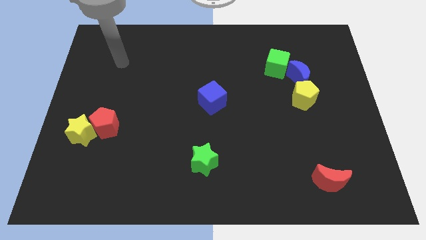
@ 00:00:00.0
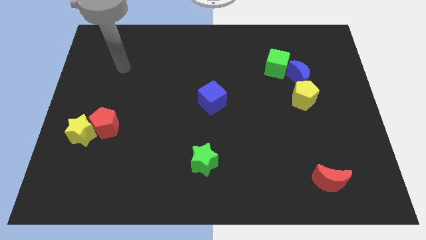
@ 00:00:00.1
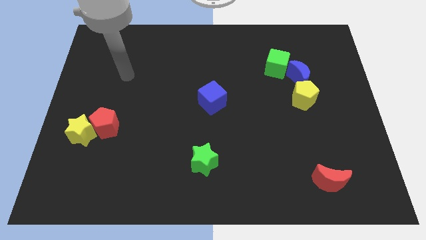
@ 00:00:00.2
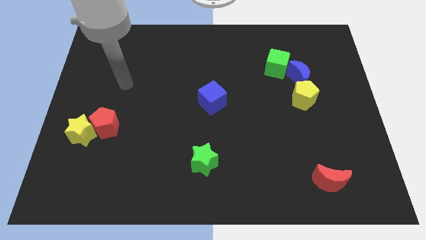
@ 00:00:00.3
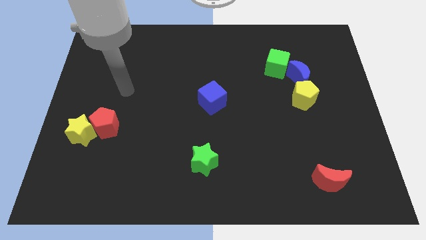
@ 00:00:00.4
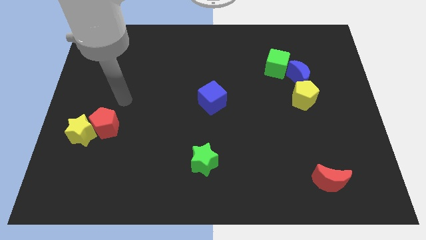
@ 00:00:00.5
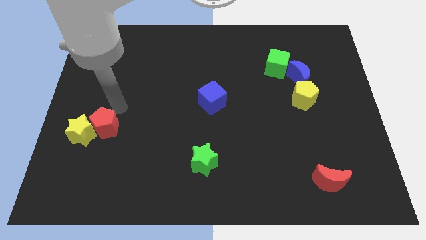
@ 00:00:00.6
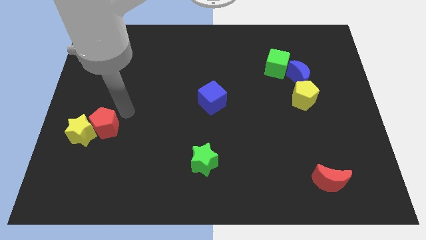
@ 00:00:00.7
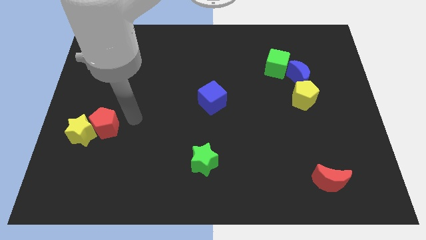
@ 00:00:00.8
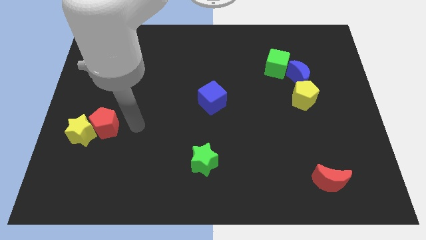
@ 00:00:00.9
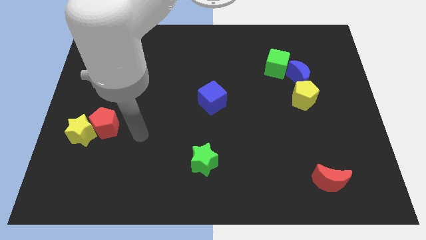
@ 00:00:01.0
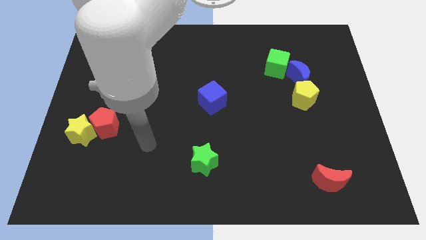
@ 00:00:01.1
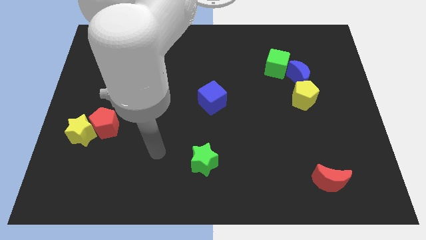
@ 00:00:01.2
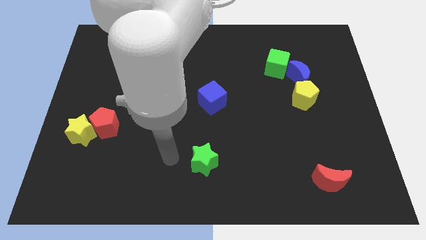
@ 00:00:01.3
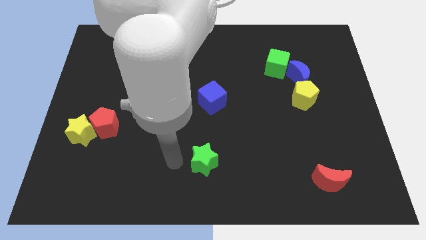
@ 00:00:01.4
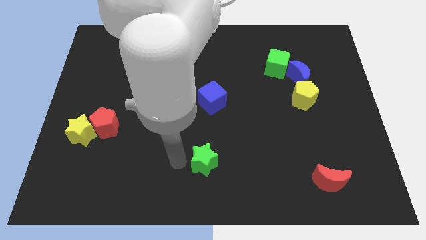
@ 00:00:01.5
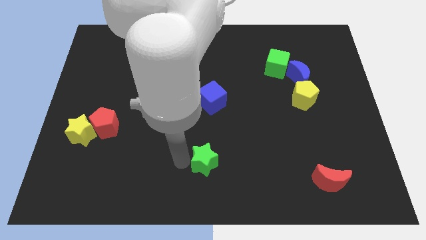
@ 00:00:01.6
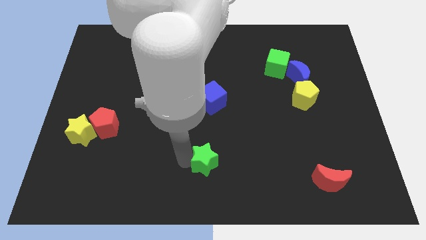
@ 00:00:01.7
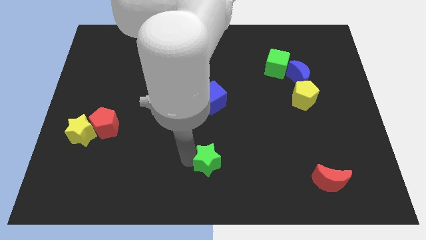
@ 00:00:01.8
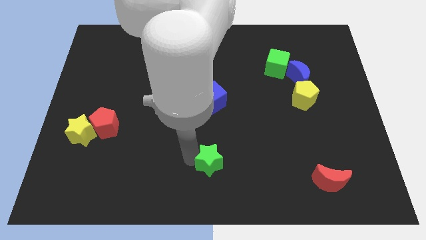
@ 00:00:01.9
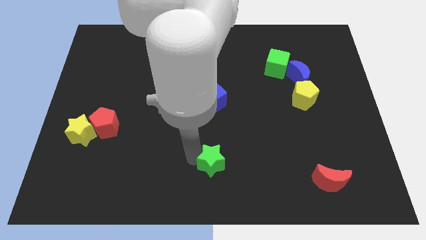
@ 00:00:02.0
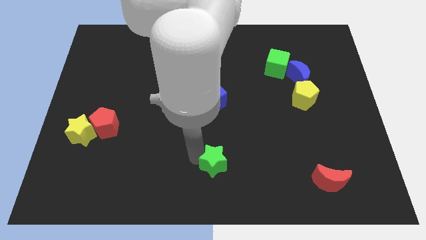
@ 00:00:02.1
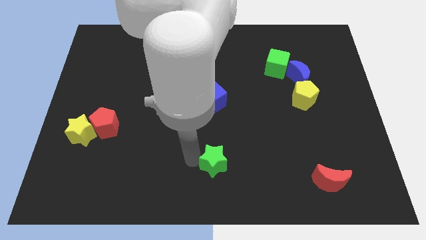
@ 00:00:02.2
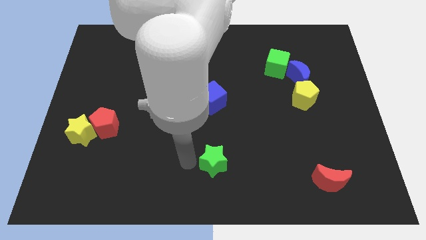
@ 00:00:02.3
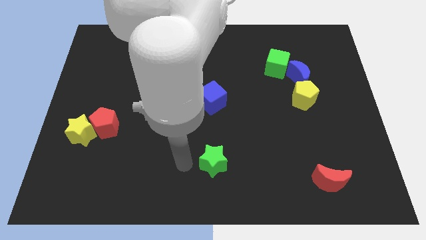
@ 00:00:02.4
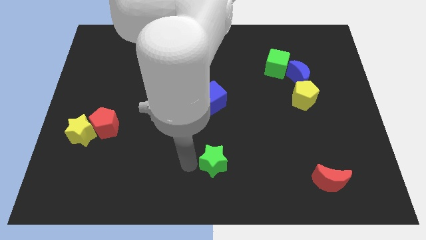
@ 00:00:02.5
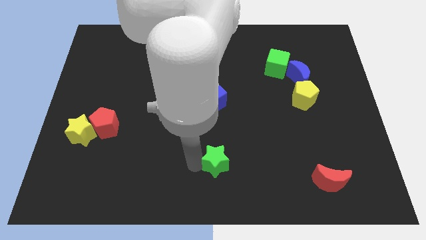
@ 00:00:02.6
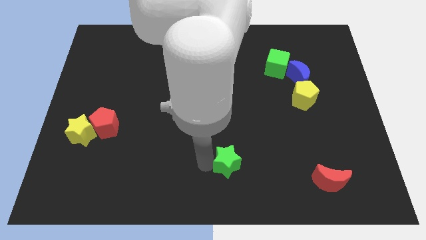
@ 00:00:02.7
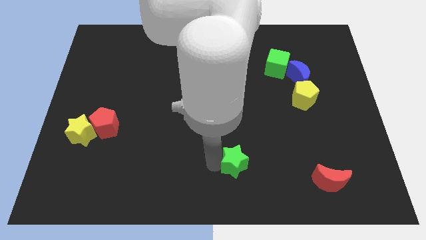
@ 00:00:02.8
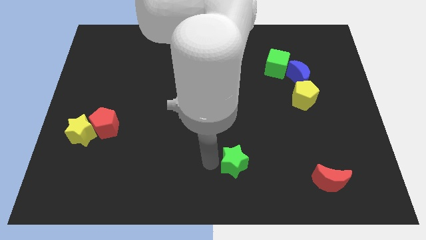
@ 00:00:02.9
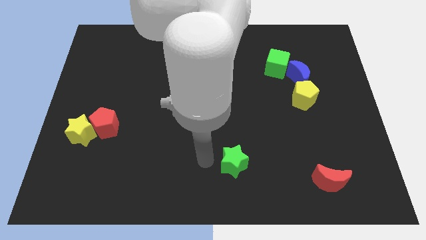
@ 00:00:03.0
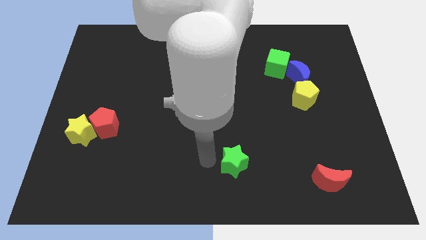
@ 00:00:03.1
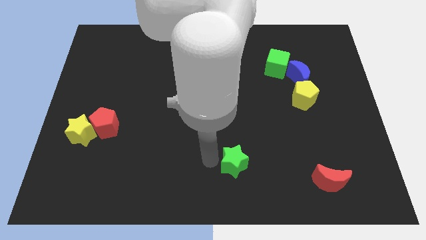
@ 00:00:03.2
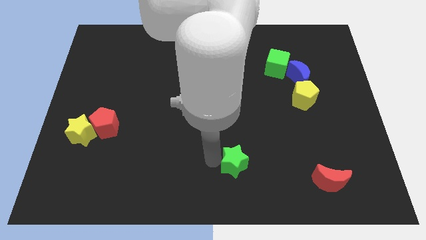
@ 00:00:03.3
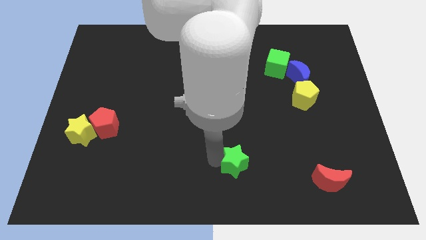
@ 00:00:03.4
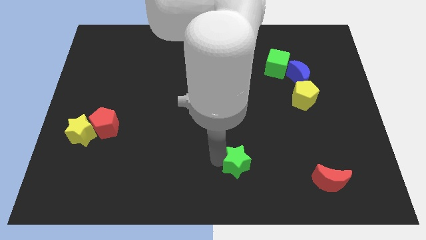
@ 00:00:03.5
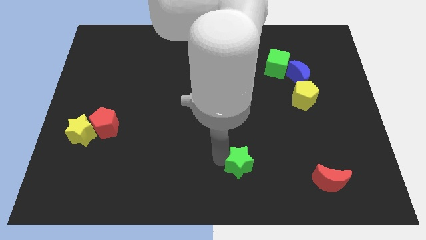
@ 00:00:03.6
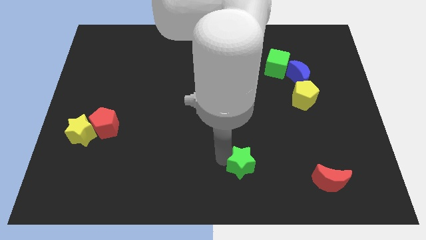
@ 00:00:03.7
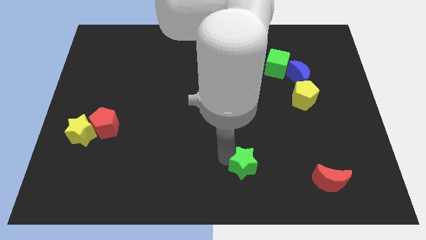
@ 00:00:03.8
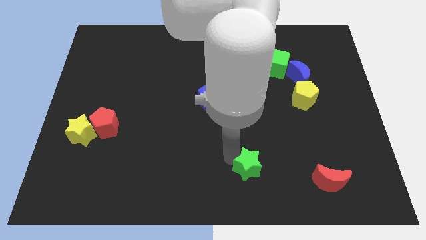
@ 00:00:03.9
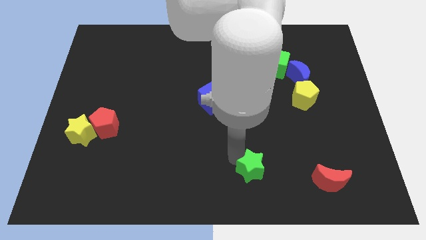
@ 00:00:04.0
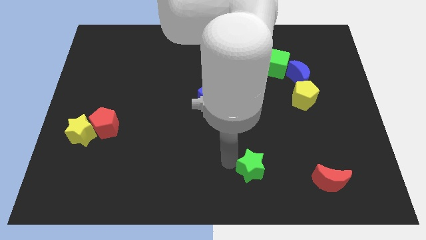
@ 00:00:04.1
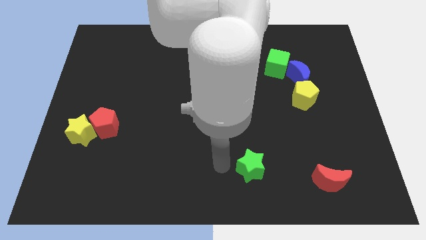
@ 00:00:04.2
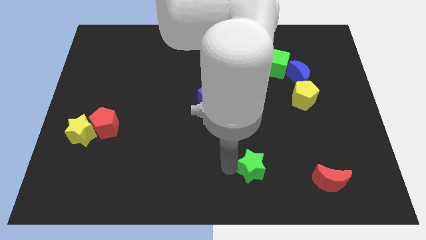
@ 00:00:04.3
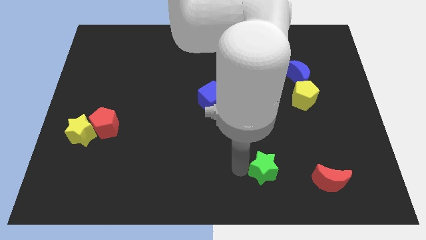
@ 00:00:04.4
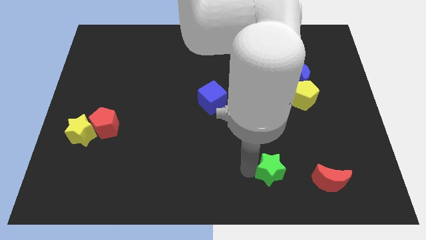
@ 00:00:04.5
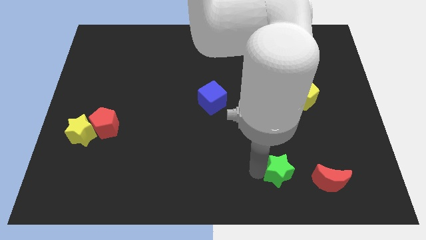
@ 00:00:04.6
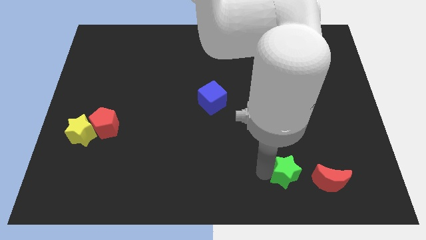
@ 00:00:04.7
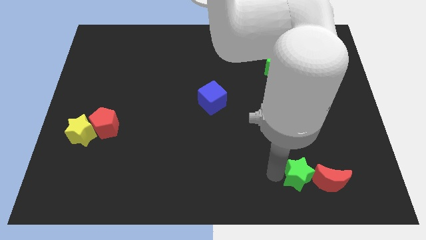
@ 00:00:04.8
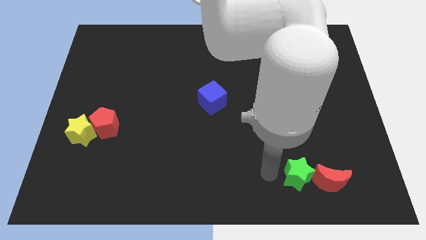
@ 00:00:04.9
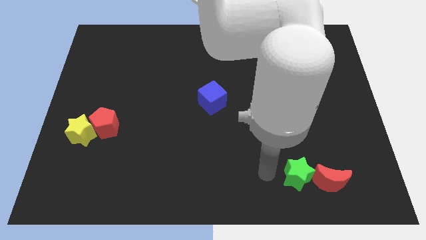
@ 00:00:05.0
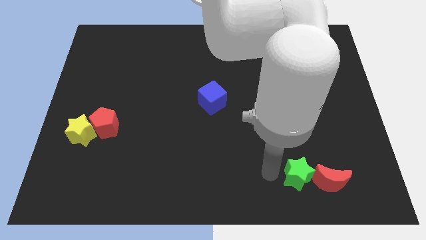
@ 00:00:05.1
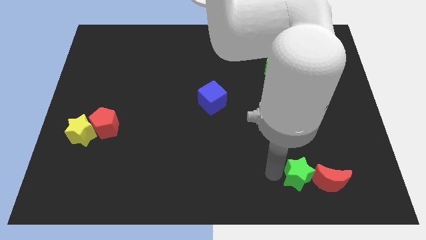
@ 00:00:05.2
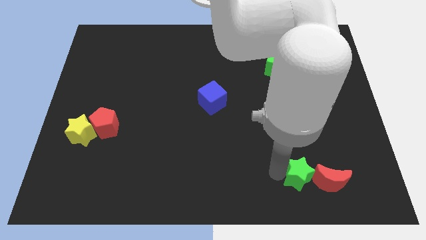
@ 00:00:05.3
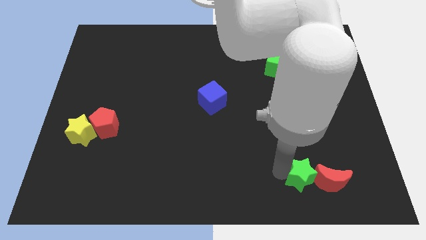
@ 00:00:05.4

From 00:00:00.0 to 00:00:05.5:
move the green star close to the red moon

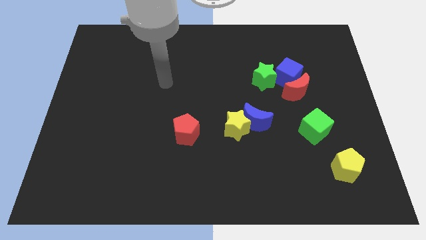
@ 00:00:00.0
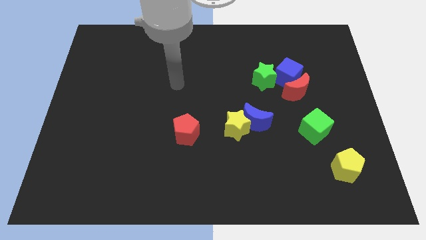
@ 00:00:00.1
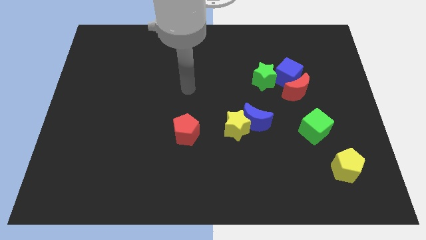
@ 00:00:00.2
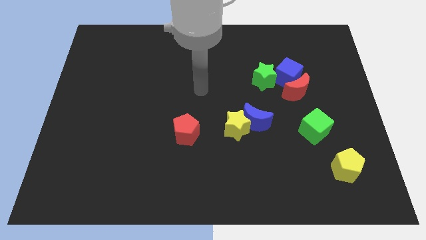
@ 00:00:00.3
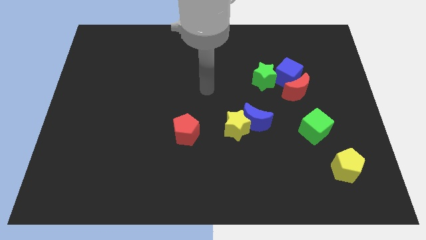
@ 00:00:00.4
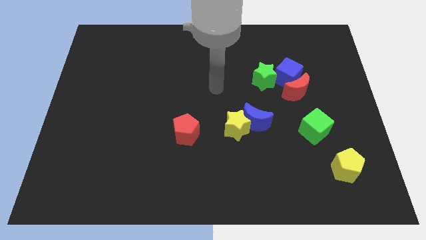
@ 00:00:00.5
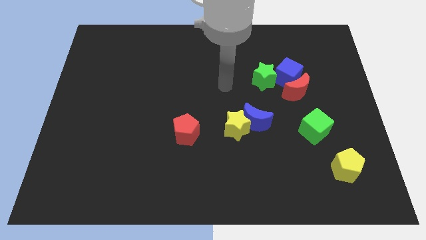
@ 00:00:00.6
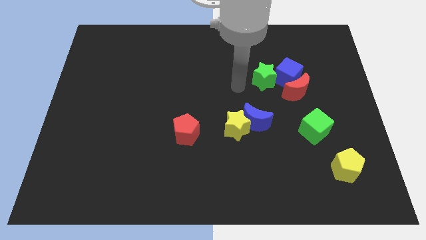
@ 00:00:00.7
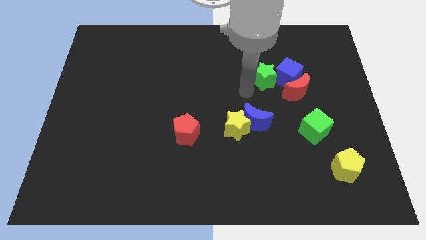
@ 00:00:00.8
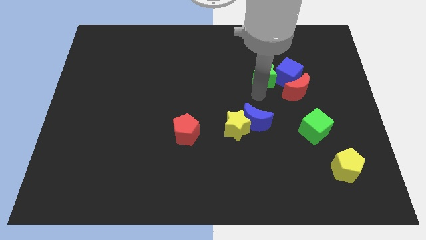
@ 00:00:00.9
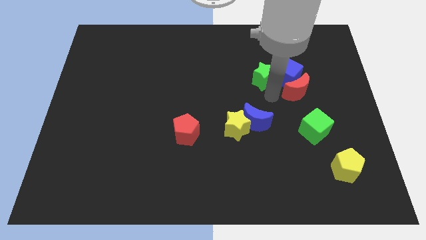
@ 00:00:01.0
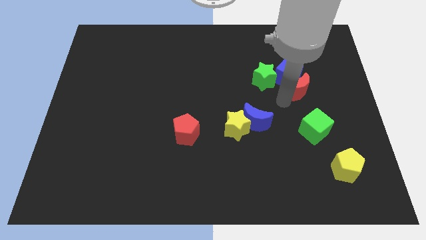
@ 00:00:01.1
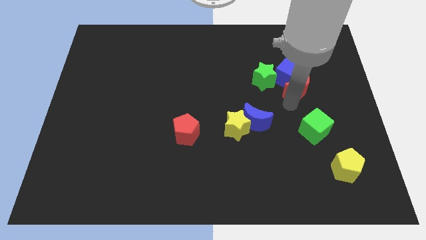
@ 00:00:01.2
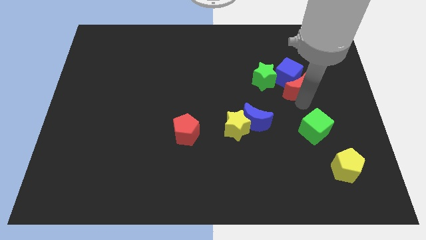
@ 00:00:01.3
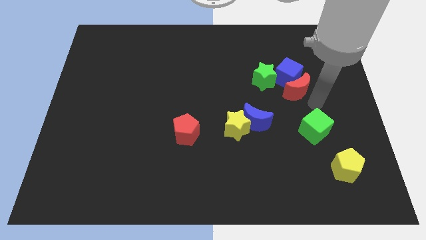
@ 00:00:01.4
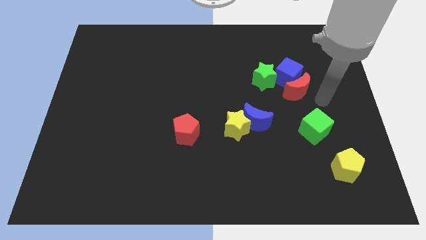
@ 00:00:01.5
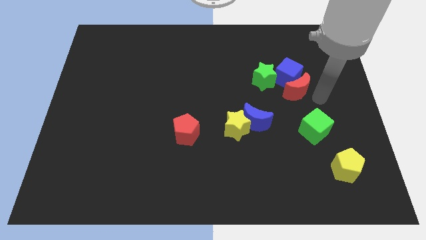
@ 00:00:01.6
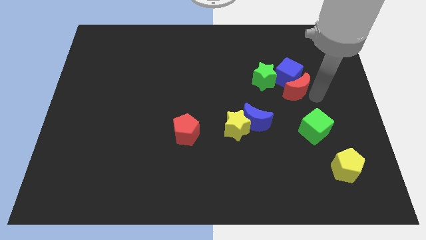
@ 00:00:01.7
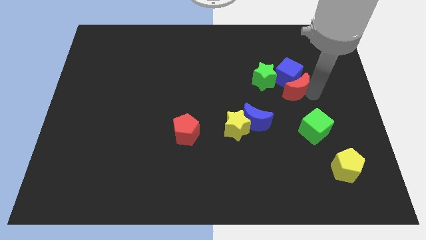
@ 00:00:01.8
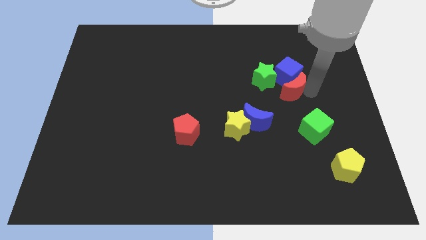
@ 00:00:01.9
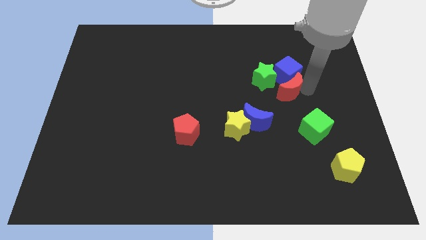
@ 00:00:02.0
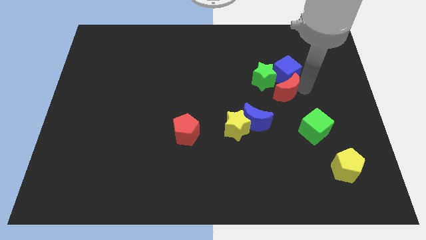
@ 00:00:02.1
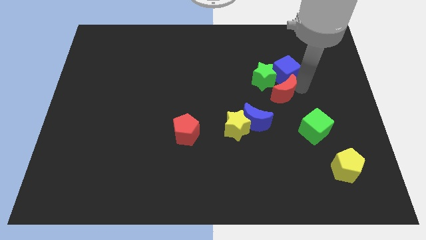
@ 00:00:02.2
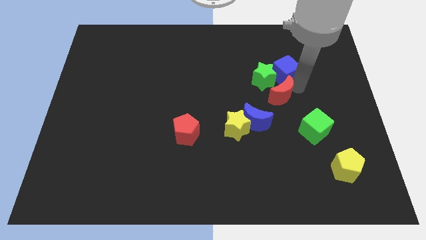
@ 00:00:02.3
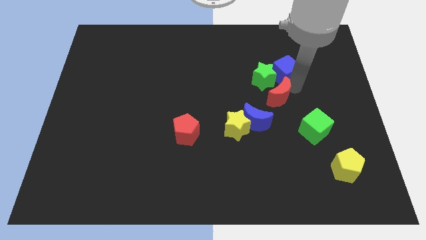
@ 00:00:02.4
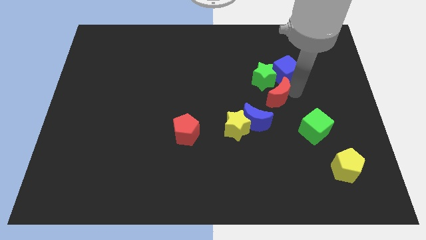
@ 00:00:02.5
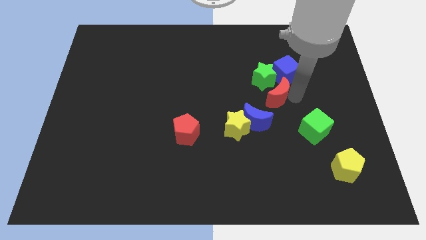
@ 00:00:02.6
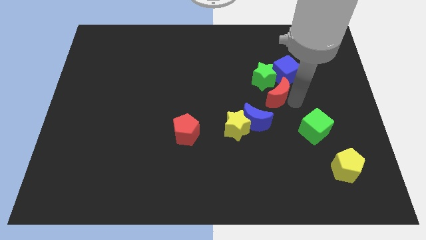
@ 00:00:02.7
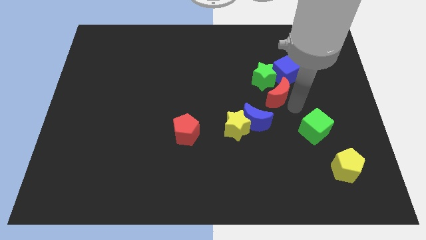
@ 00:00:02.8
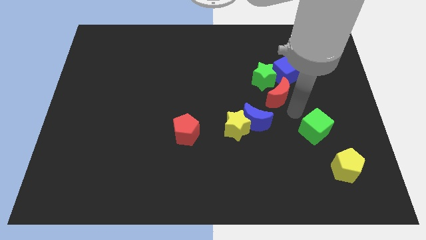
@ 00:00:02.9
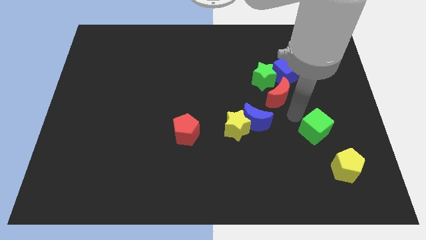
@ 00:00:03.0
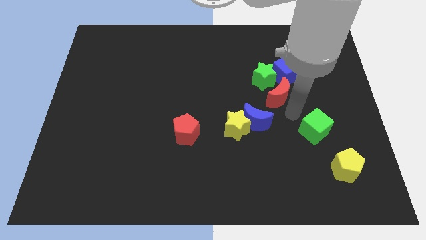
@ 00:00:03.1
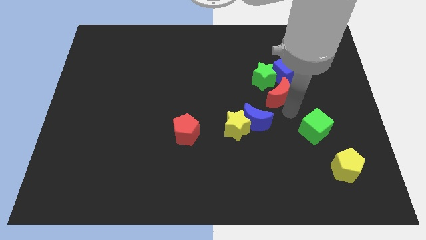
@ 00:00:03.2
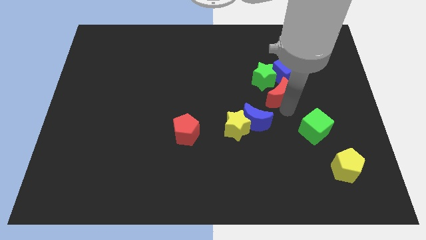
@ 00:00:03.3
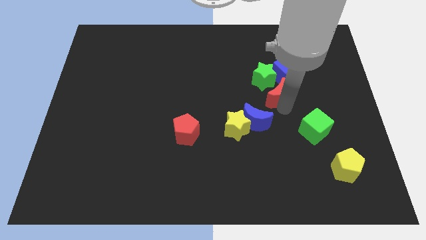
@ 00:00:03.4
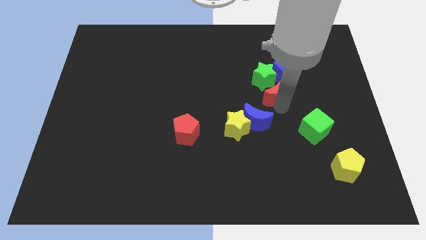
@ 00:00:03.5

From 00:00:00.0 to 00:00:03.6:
push the red moon to the green star
